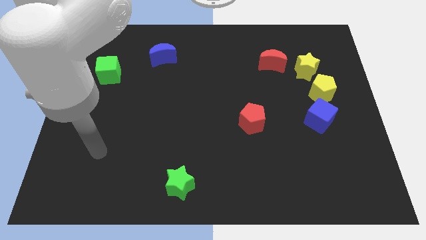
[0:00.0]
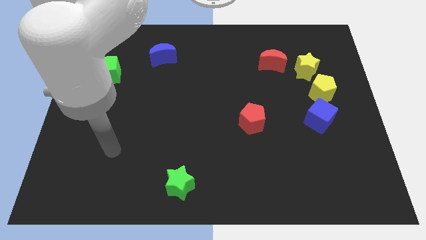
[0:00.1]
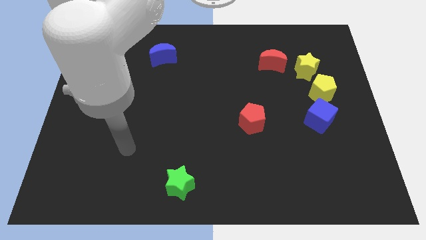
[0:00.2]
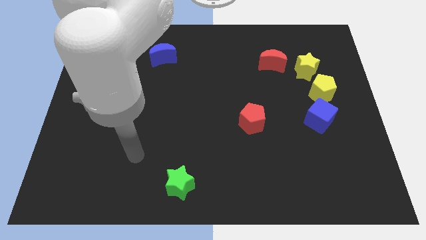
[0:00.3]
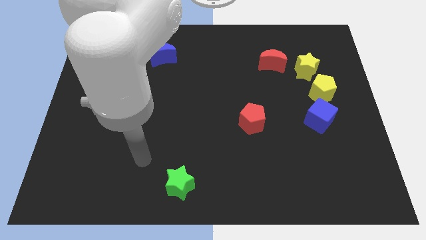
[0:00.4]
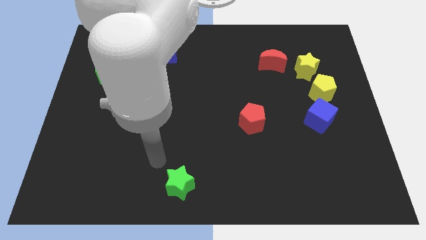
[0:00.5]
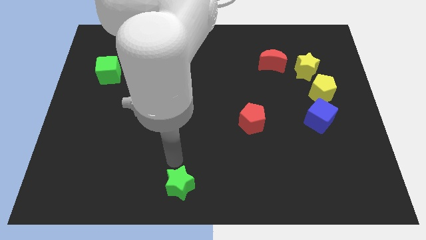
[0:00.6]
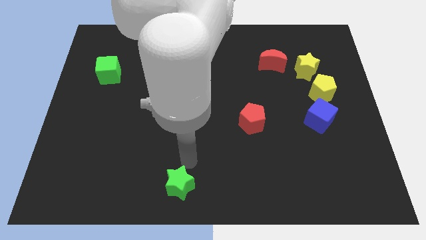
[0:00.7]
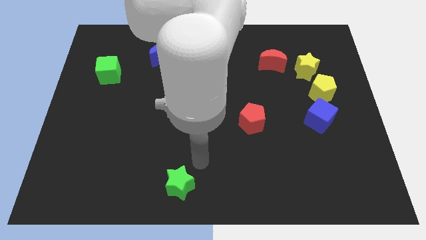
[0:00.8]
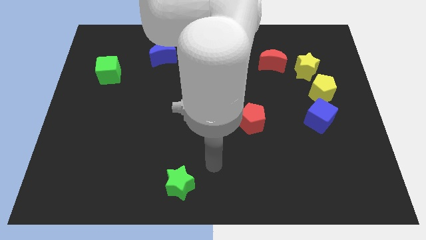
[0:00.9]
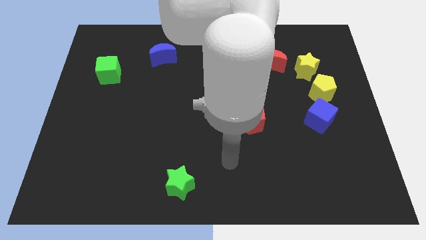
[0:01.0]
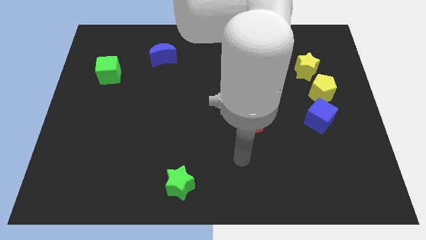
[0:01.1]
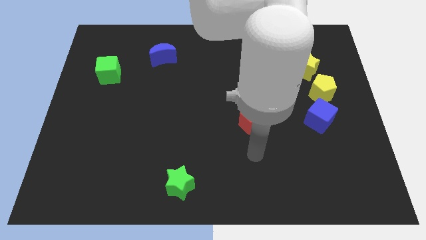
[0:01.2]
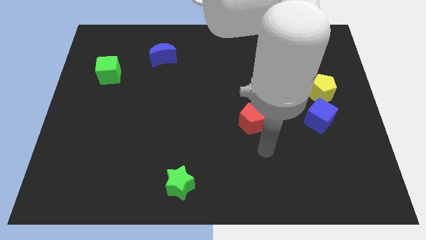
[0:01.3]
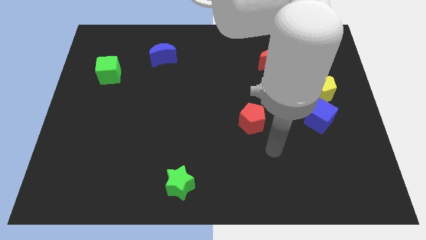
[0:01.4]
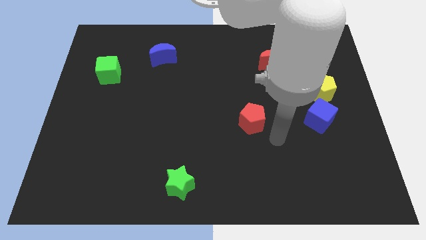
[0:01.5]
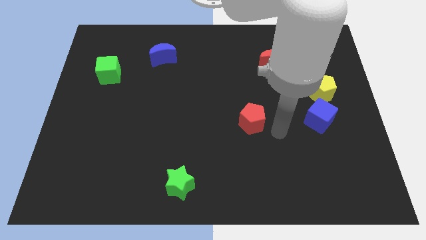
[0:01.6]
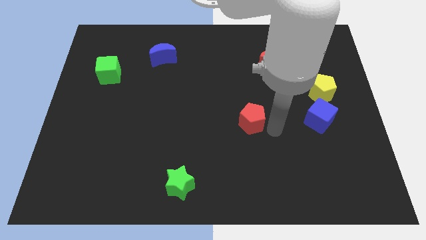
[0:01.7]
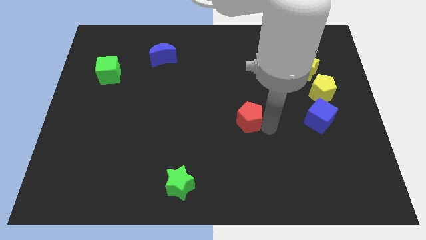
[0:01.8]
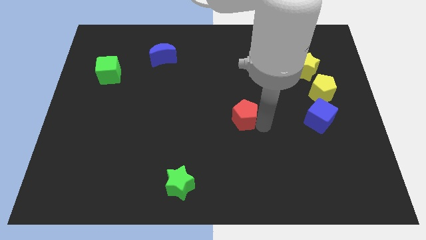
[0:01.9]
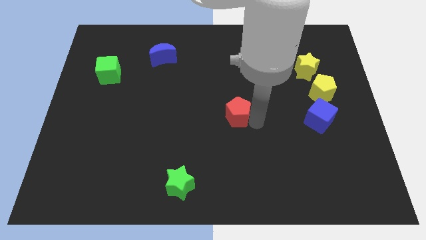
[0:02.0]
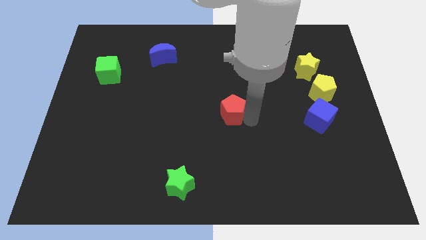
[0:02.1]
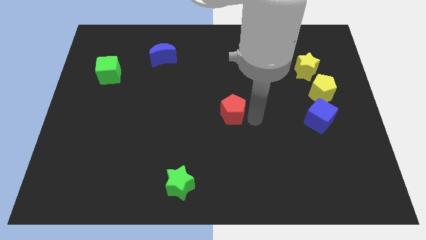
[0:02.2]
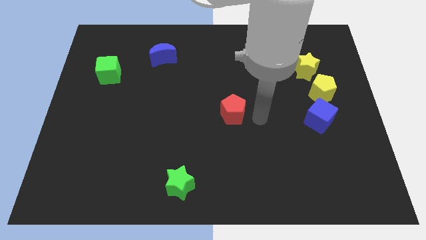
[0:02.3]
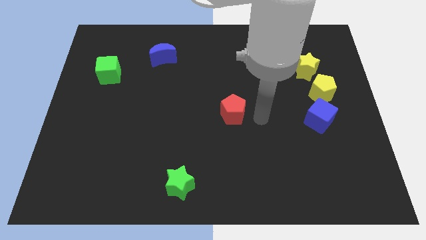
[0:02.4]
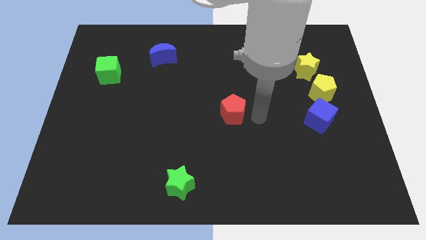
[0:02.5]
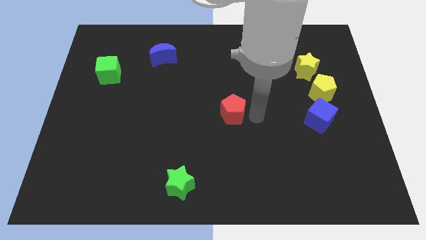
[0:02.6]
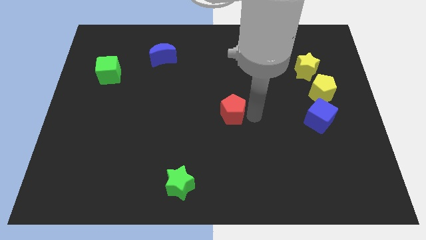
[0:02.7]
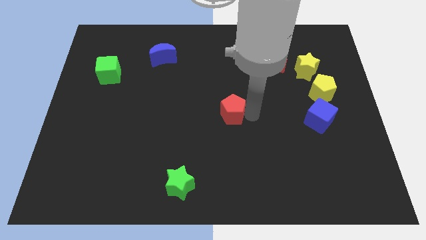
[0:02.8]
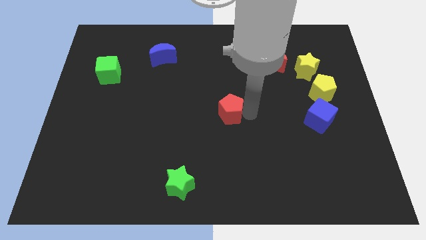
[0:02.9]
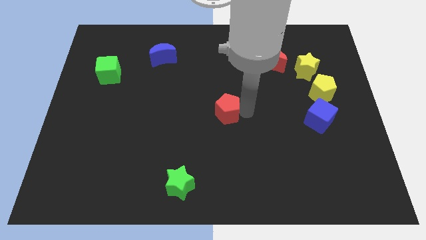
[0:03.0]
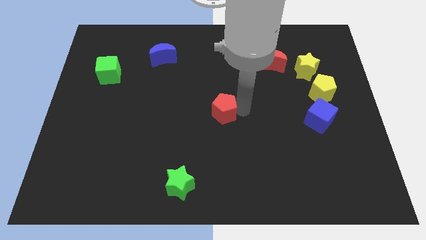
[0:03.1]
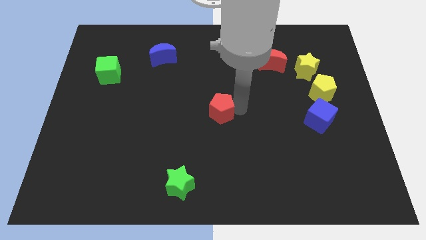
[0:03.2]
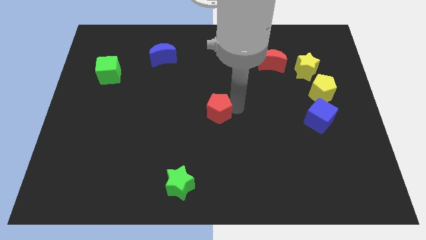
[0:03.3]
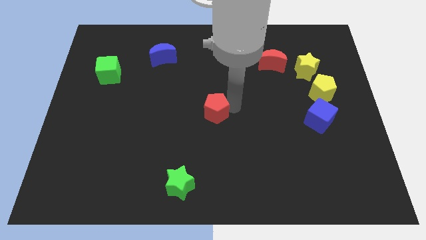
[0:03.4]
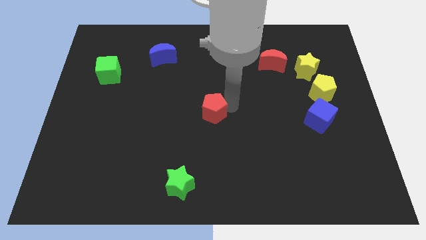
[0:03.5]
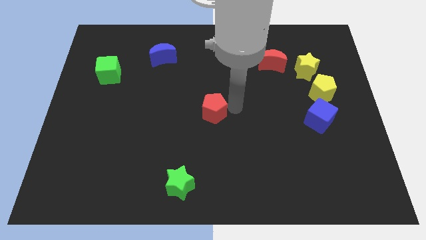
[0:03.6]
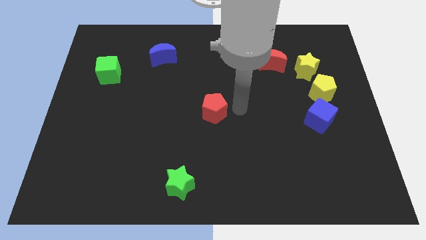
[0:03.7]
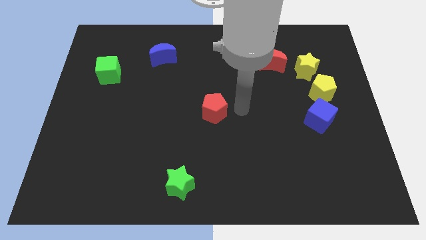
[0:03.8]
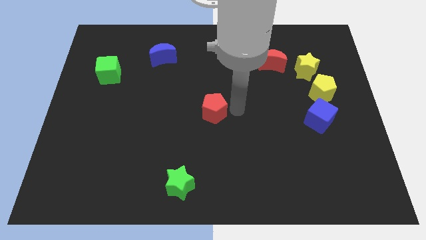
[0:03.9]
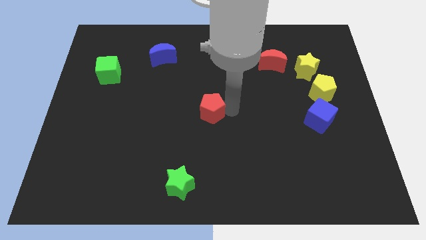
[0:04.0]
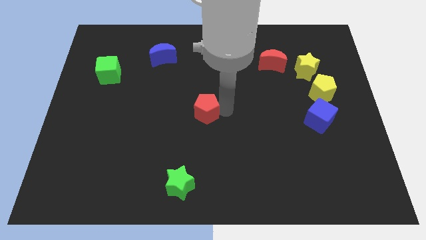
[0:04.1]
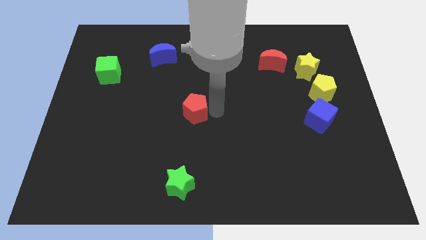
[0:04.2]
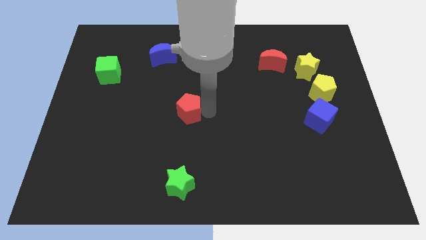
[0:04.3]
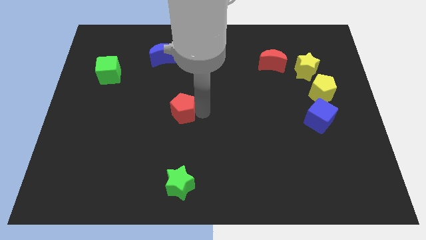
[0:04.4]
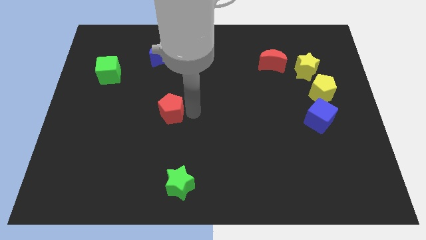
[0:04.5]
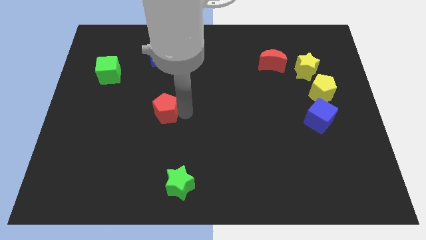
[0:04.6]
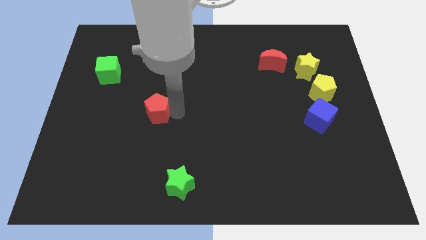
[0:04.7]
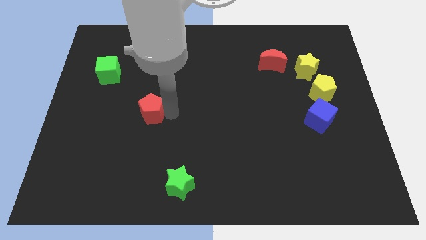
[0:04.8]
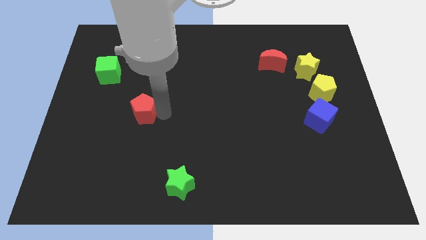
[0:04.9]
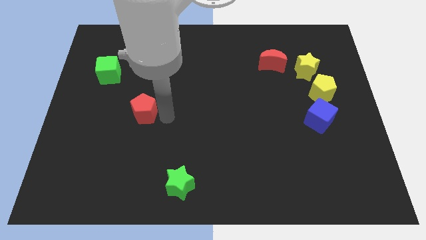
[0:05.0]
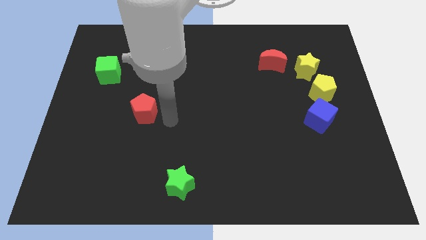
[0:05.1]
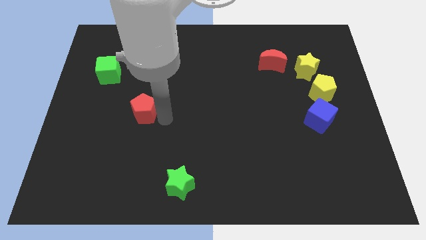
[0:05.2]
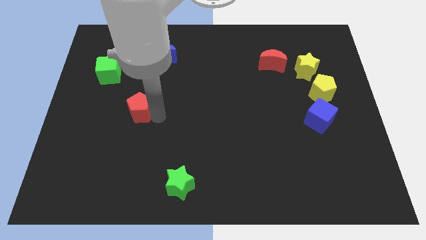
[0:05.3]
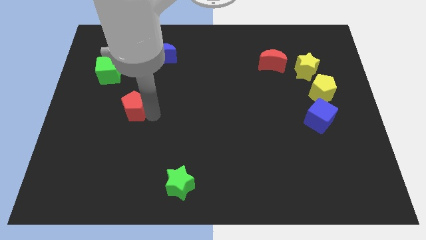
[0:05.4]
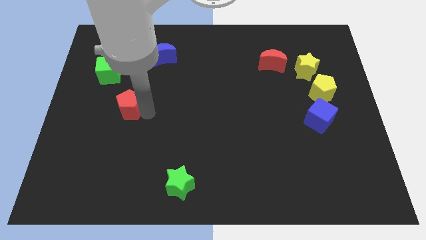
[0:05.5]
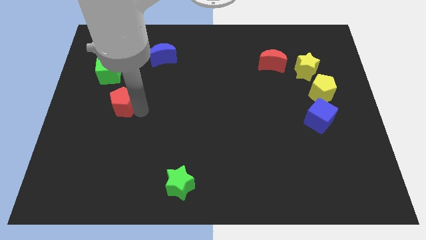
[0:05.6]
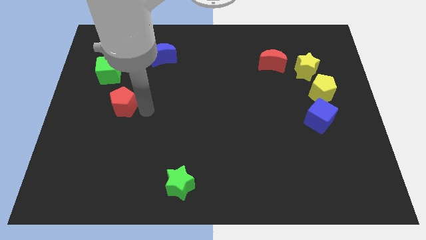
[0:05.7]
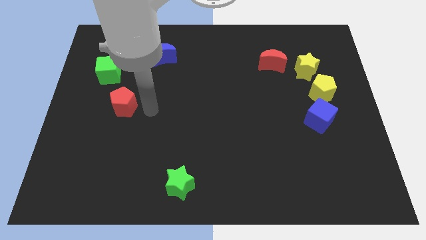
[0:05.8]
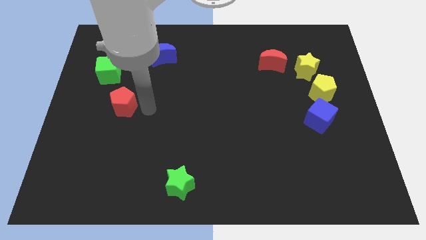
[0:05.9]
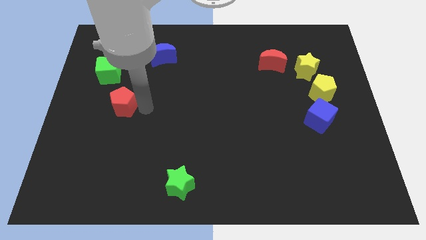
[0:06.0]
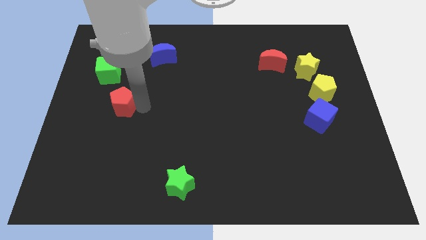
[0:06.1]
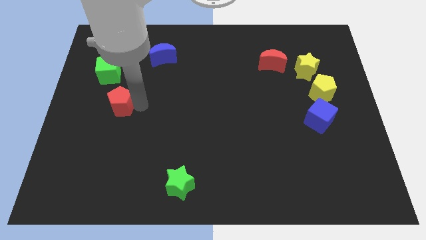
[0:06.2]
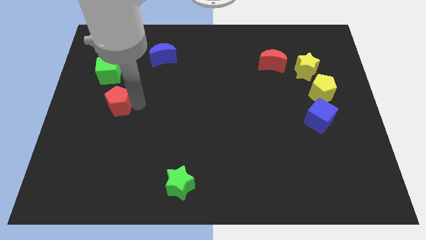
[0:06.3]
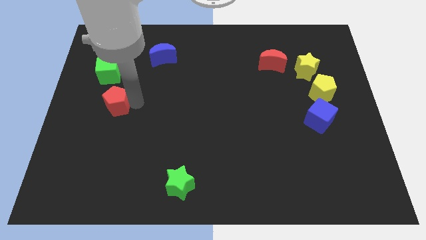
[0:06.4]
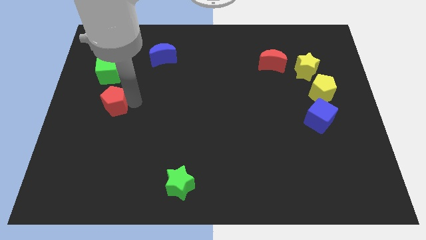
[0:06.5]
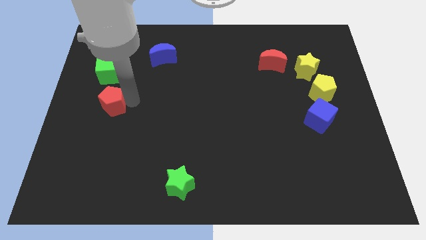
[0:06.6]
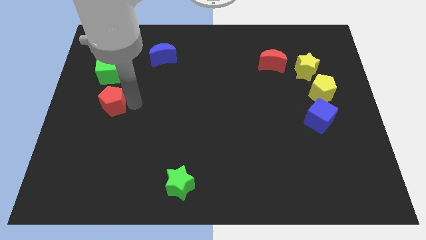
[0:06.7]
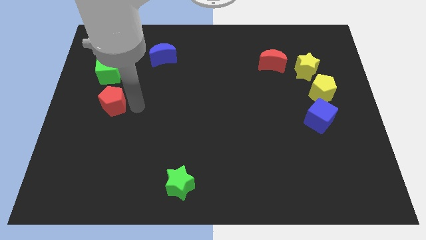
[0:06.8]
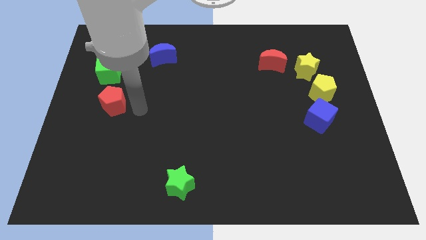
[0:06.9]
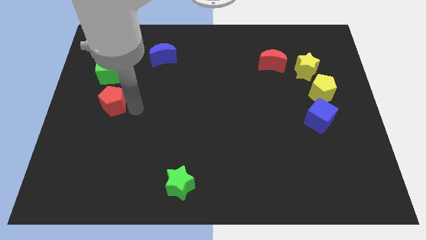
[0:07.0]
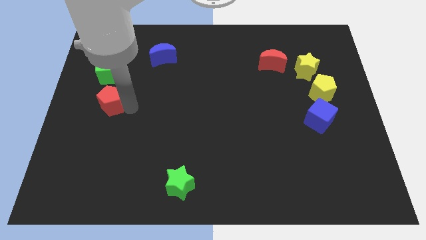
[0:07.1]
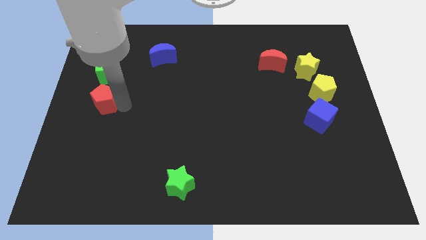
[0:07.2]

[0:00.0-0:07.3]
move the red pentagon to the center left
